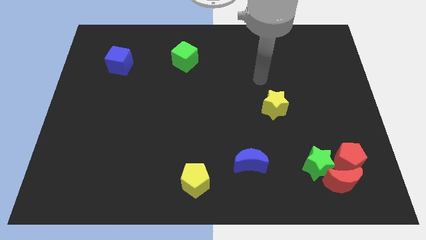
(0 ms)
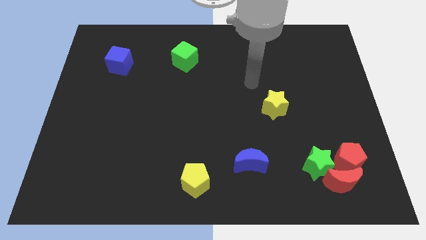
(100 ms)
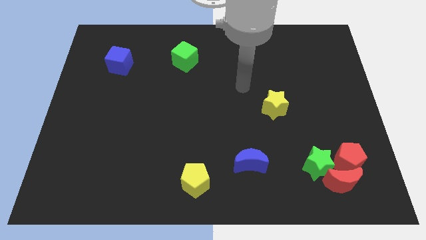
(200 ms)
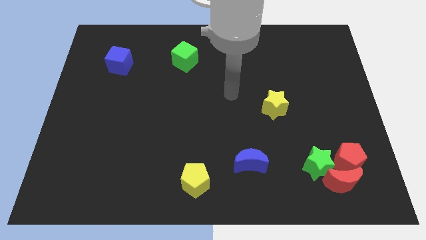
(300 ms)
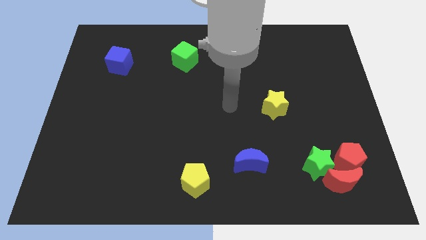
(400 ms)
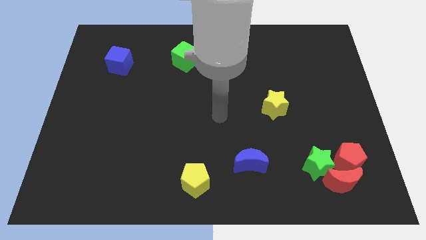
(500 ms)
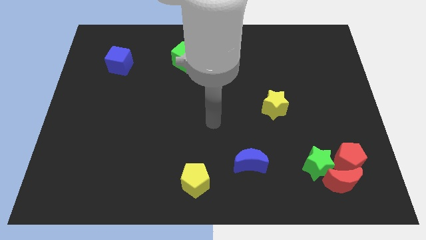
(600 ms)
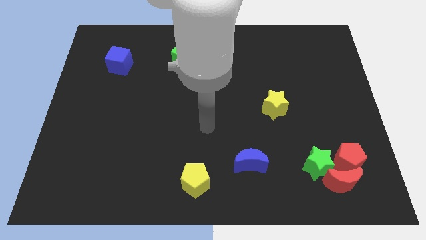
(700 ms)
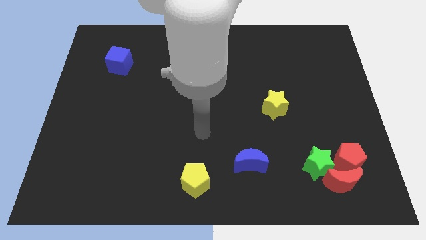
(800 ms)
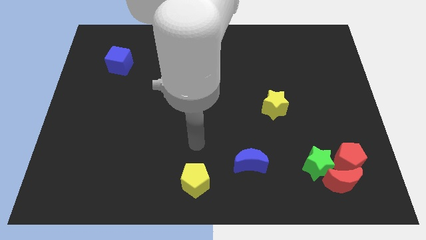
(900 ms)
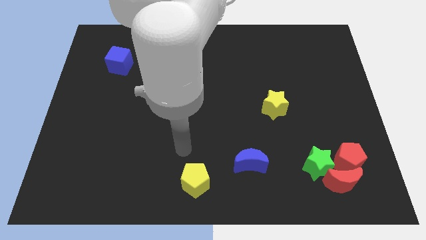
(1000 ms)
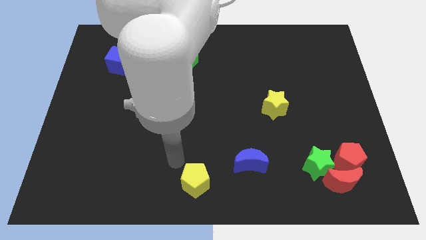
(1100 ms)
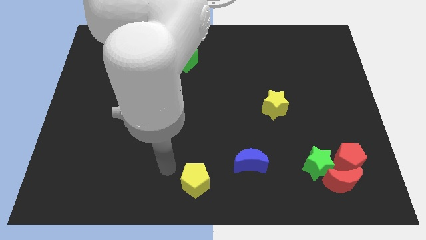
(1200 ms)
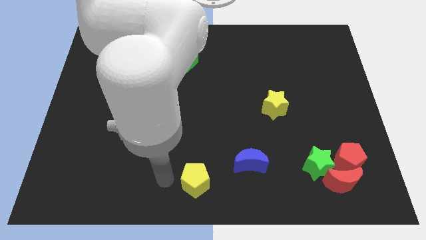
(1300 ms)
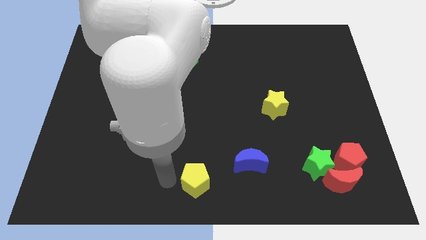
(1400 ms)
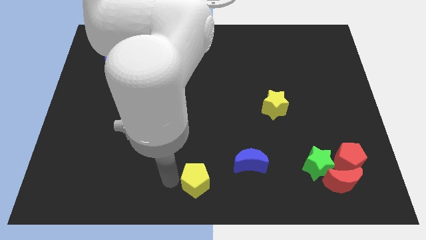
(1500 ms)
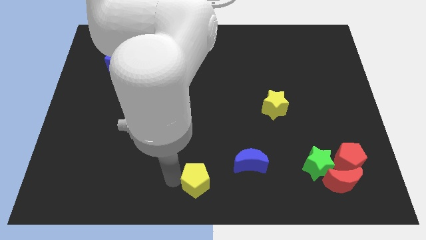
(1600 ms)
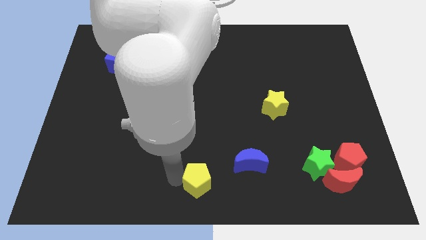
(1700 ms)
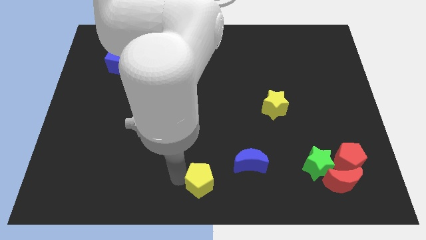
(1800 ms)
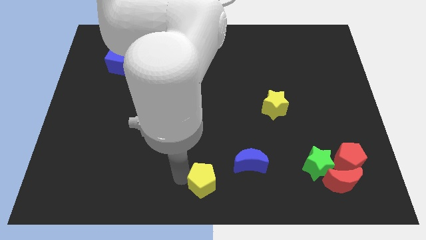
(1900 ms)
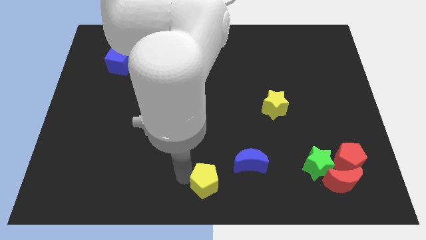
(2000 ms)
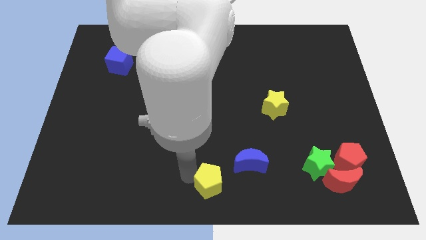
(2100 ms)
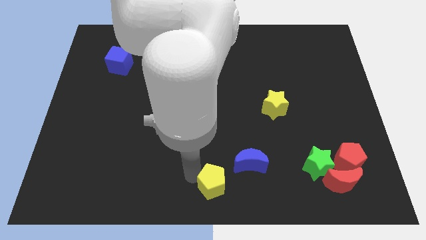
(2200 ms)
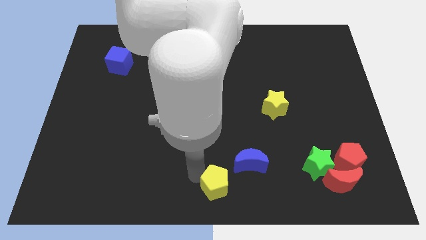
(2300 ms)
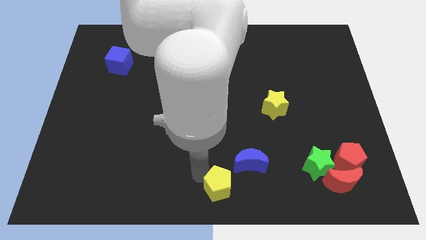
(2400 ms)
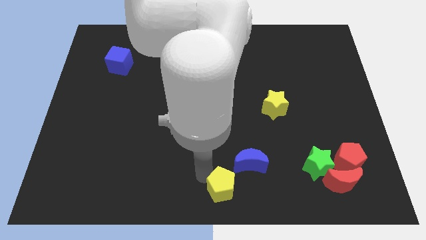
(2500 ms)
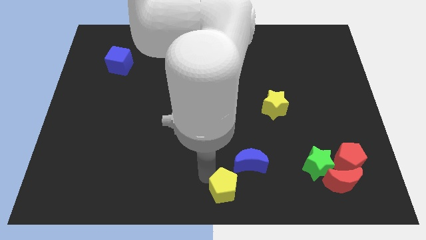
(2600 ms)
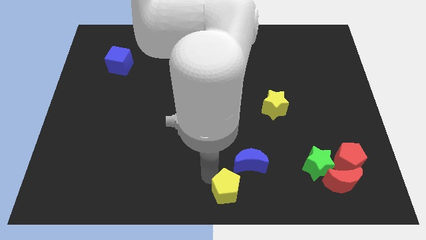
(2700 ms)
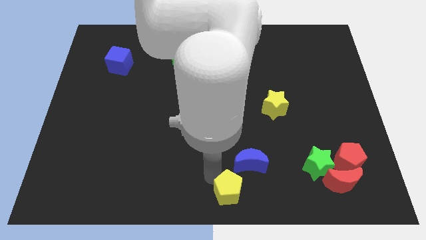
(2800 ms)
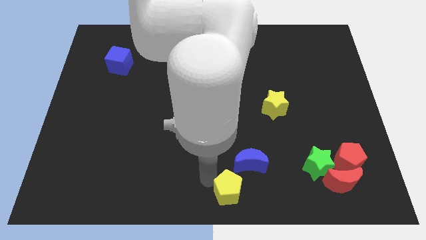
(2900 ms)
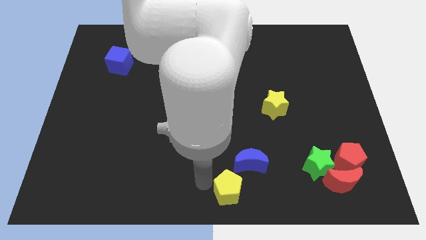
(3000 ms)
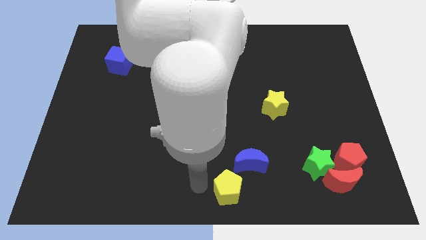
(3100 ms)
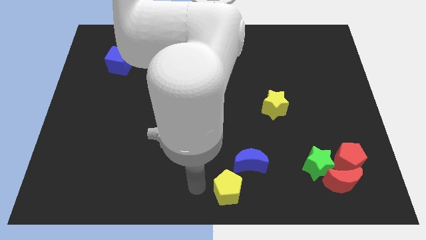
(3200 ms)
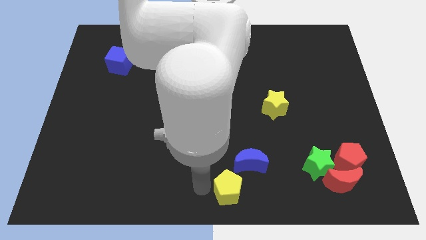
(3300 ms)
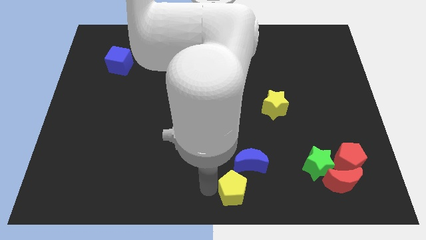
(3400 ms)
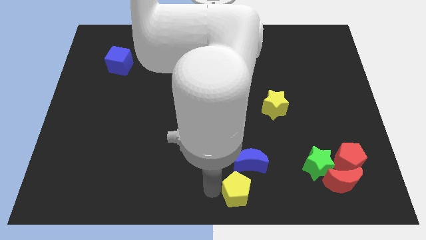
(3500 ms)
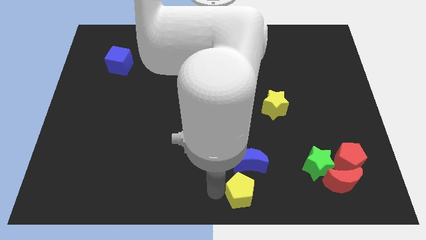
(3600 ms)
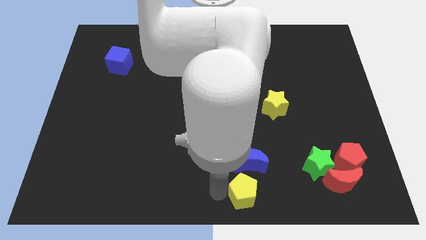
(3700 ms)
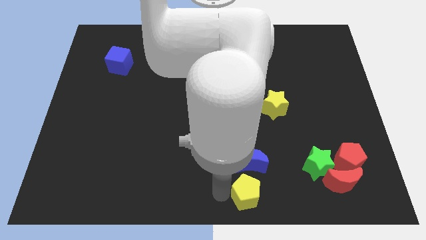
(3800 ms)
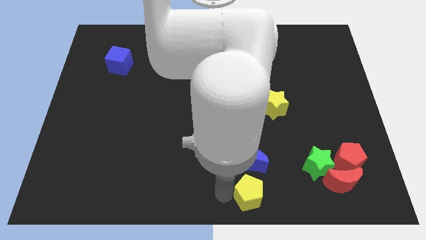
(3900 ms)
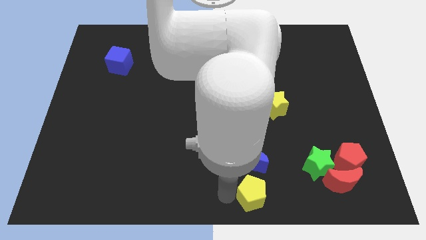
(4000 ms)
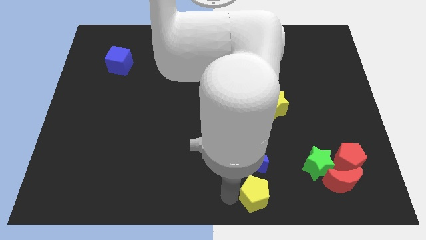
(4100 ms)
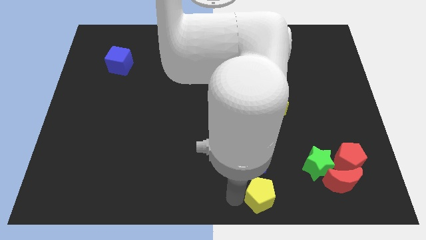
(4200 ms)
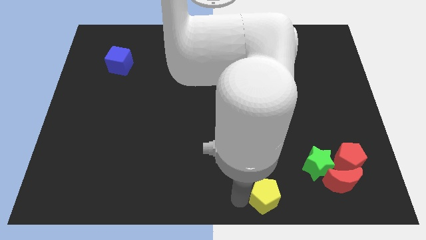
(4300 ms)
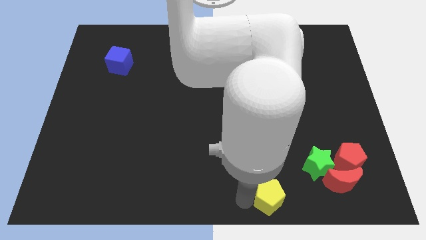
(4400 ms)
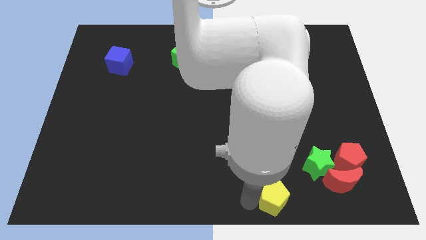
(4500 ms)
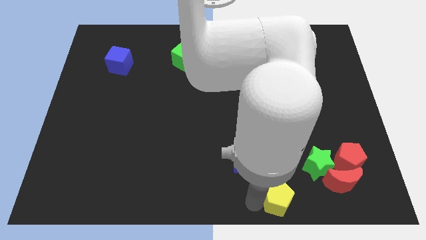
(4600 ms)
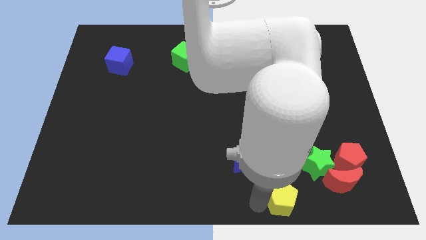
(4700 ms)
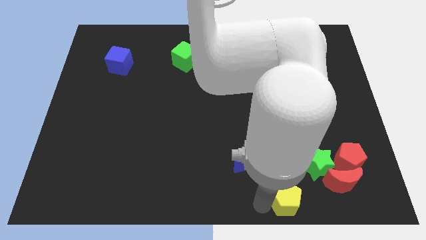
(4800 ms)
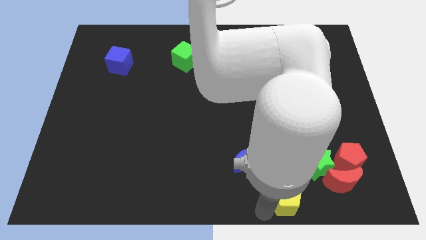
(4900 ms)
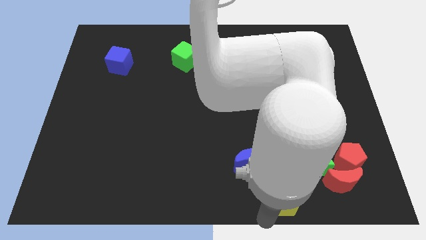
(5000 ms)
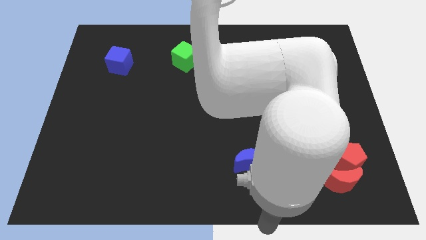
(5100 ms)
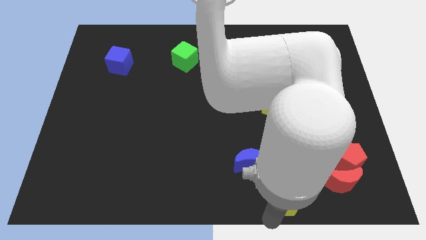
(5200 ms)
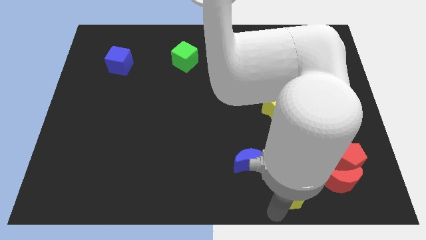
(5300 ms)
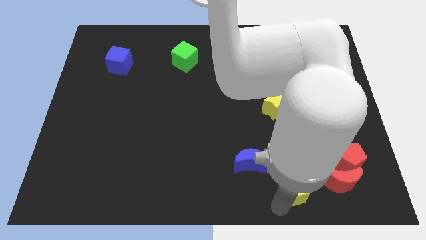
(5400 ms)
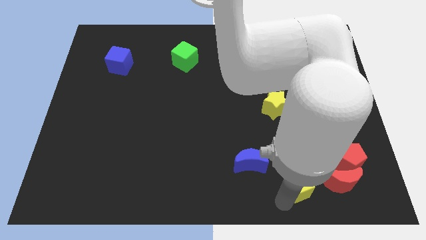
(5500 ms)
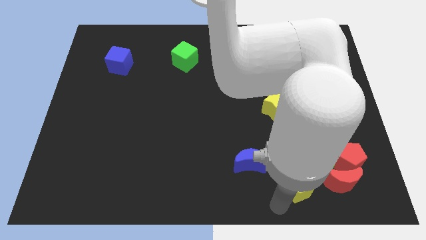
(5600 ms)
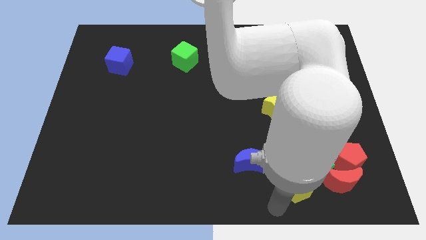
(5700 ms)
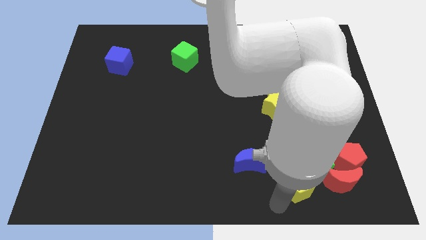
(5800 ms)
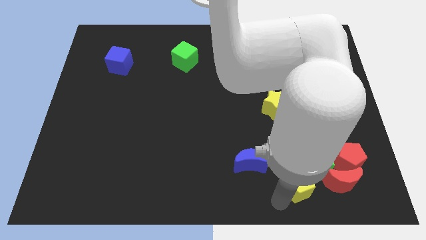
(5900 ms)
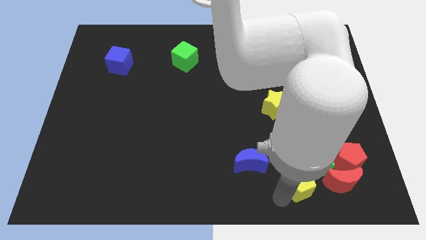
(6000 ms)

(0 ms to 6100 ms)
push the yellow pentagon next to the green star
